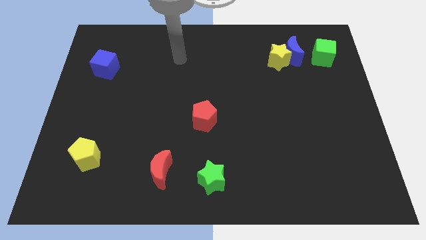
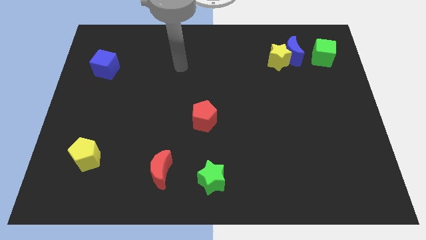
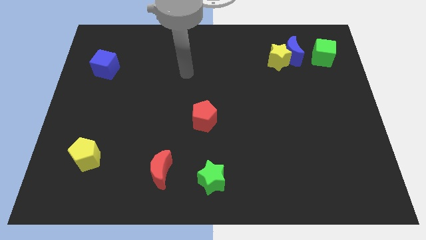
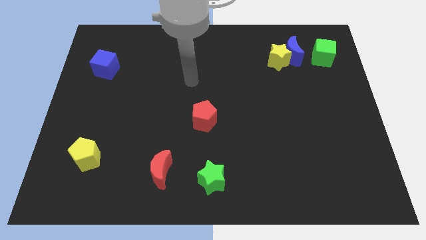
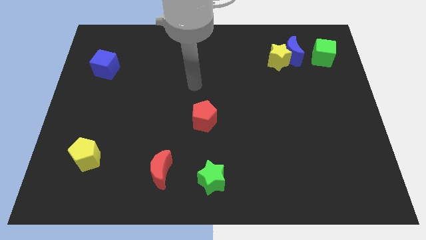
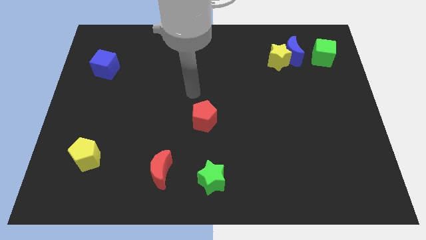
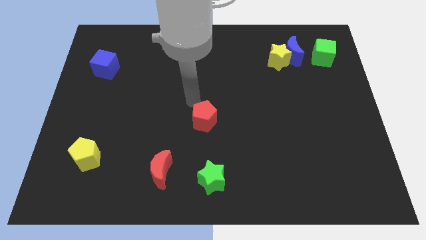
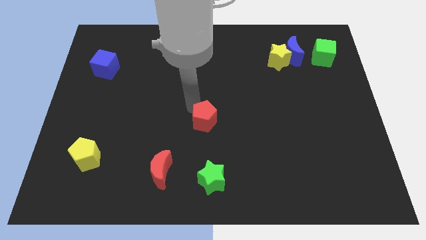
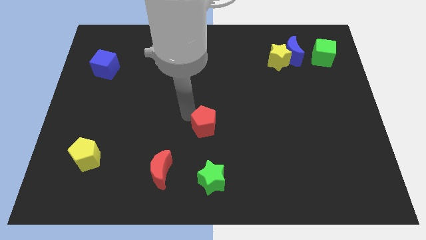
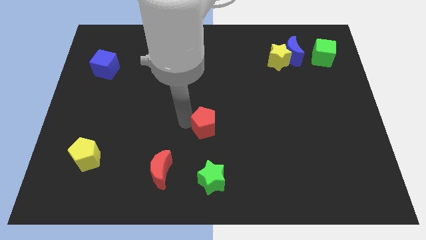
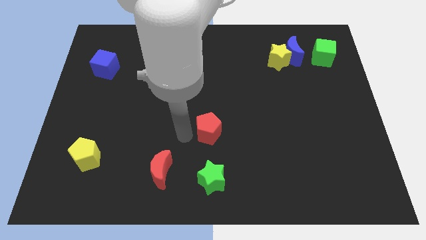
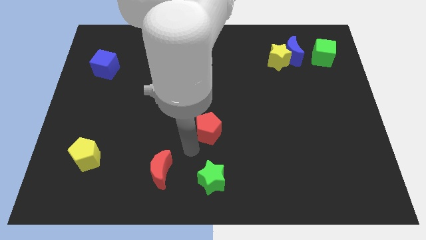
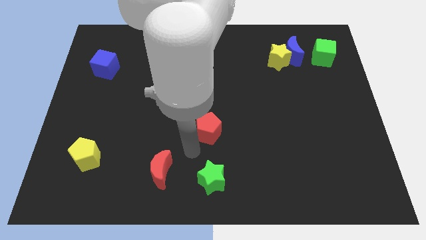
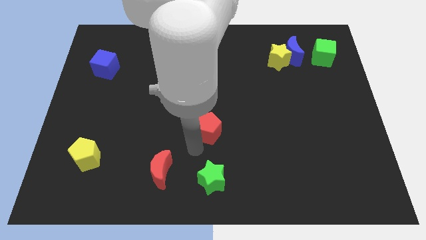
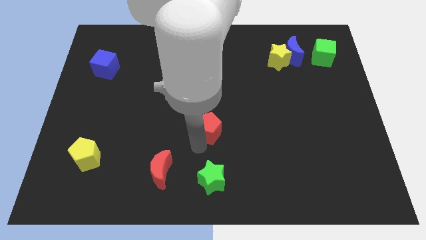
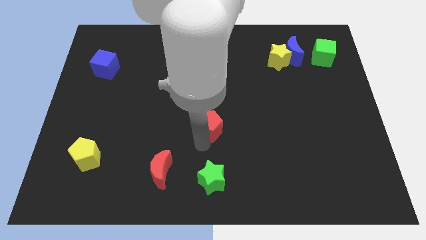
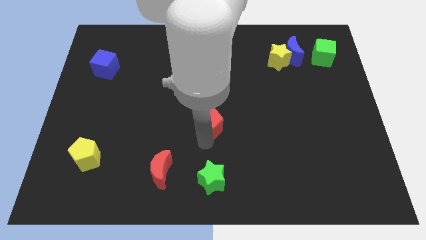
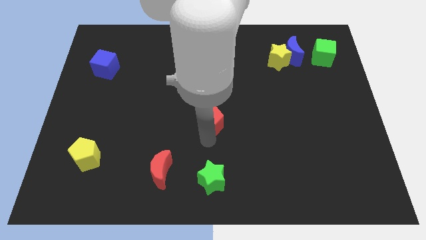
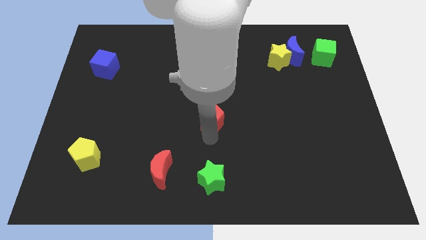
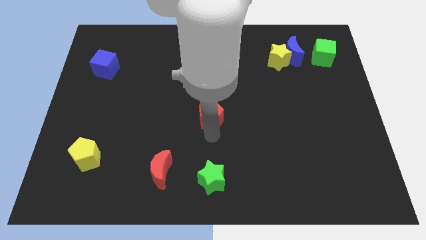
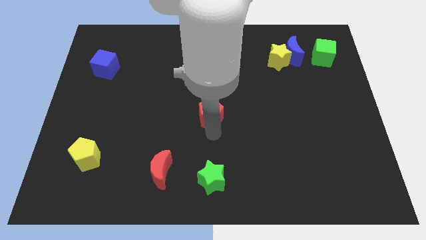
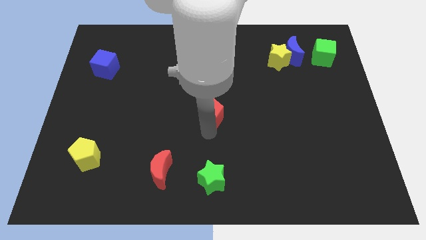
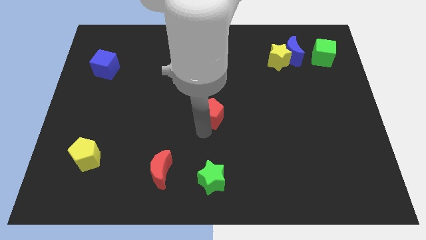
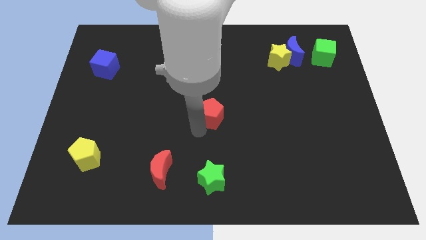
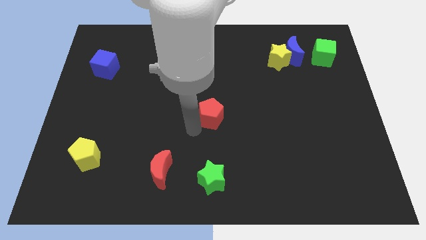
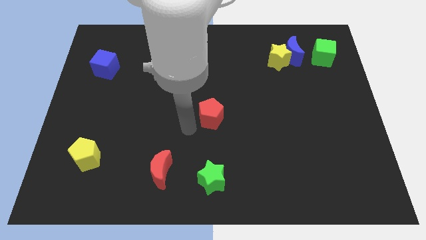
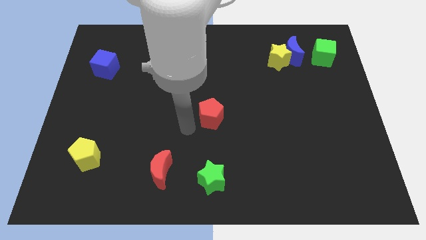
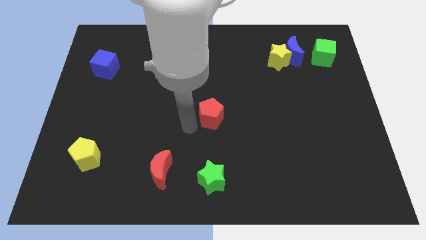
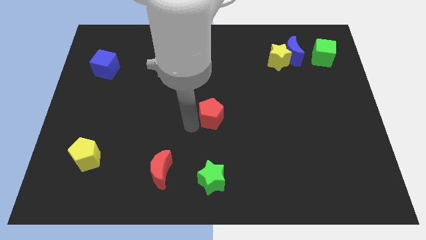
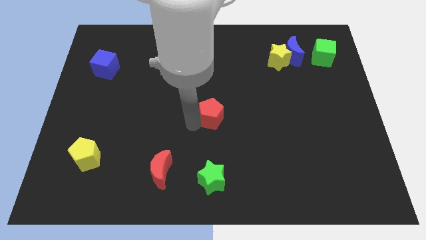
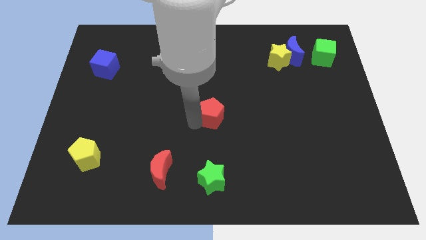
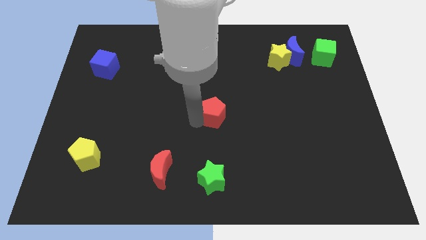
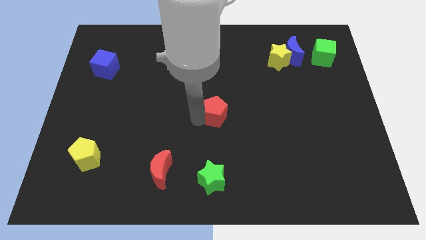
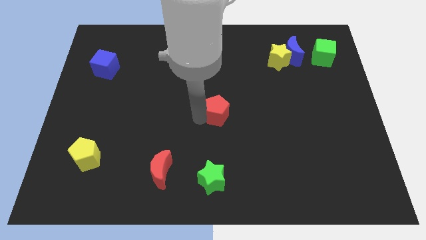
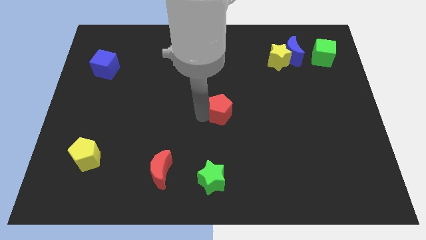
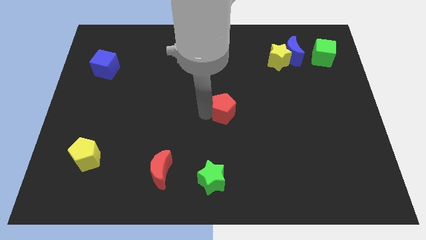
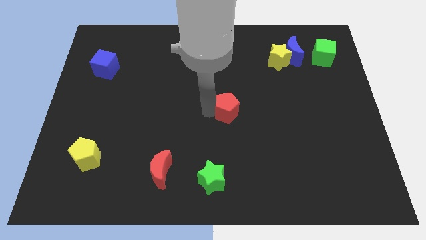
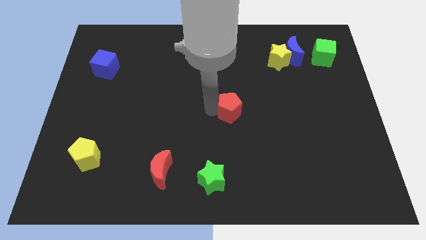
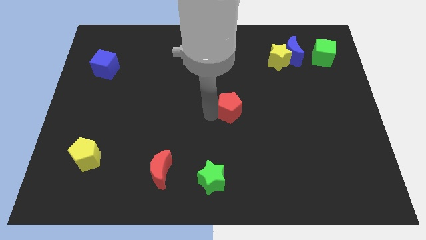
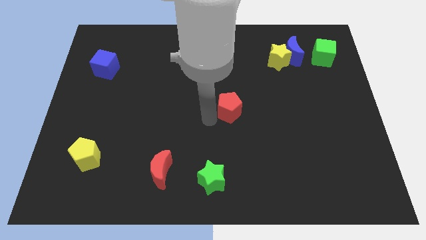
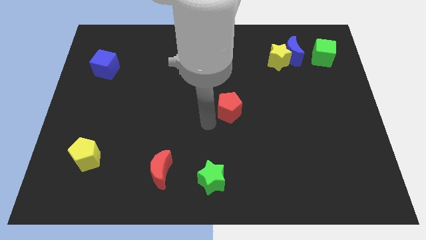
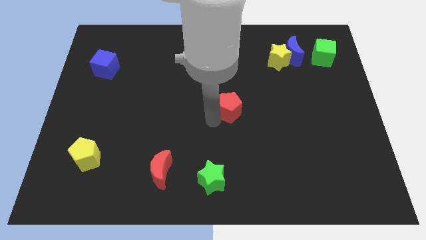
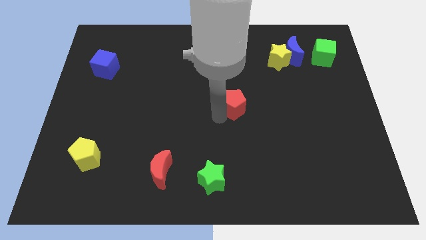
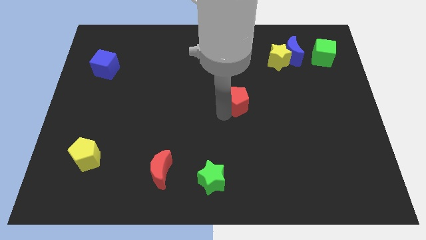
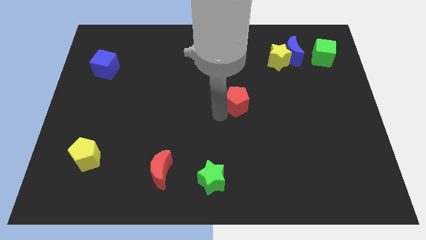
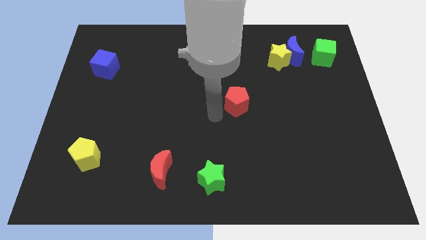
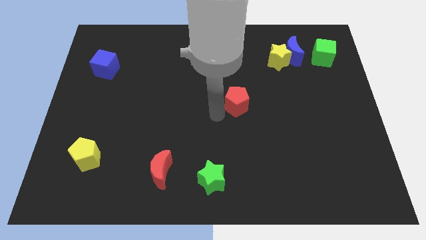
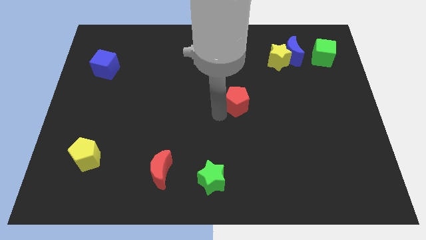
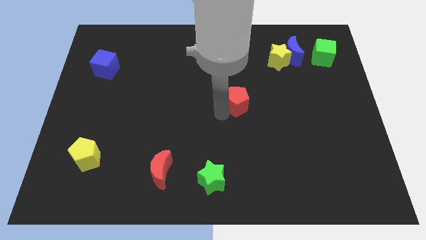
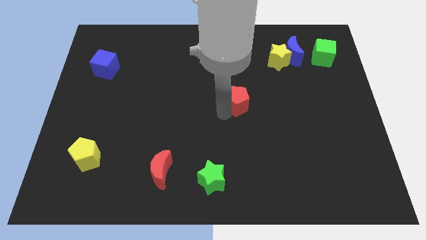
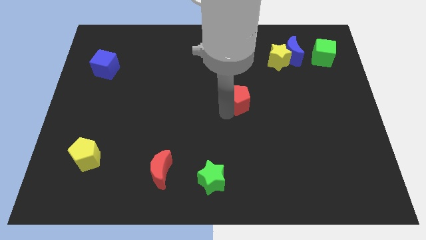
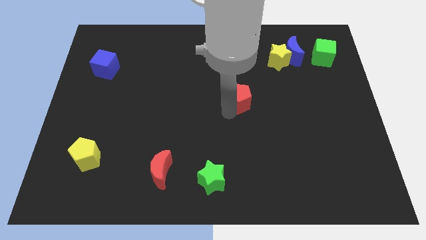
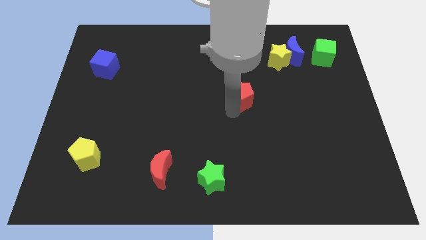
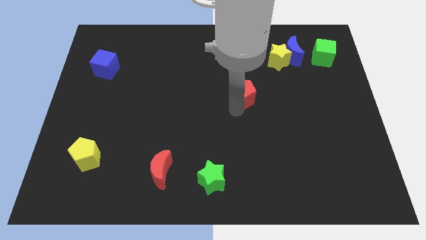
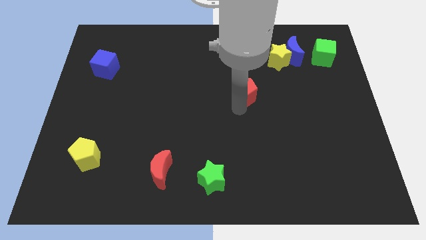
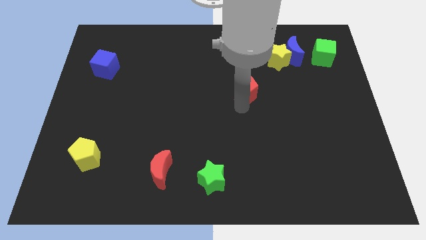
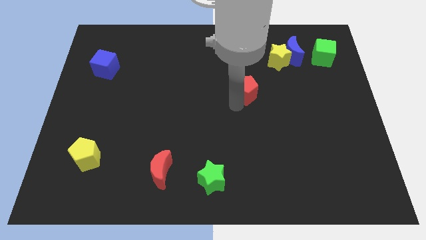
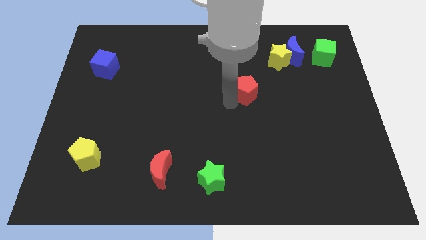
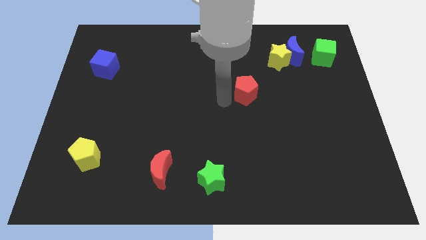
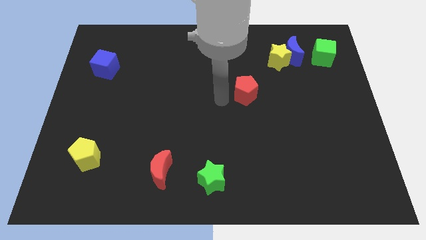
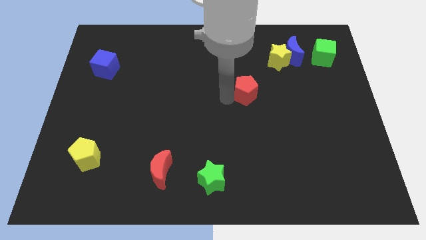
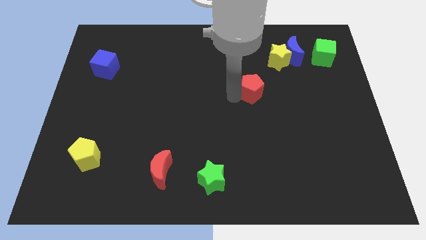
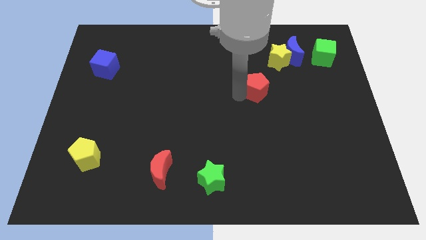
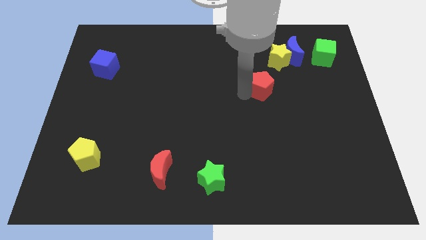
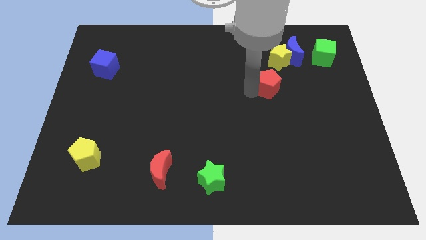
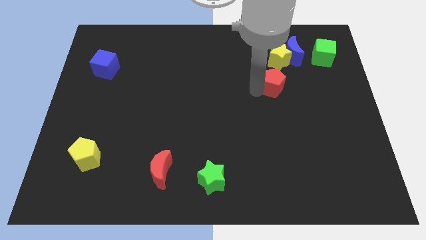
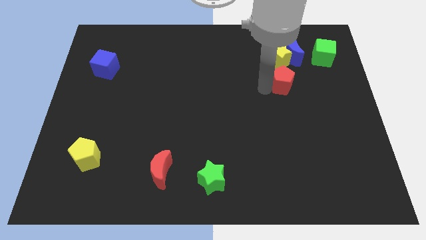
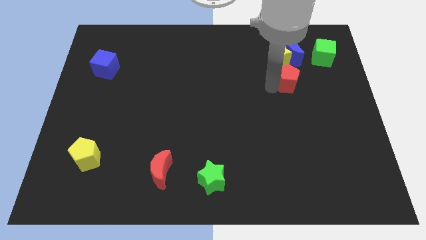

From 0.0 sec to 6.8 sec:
put the red pentagon to the bottom right of the yellow star

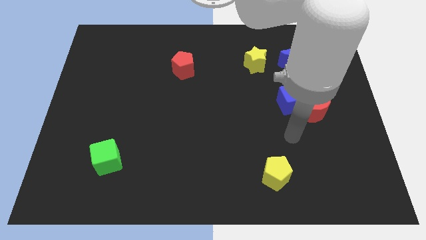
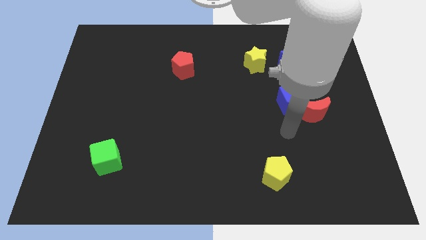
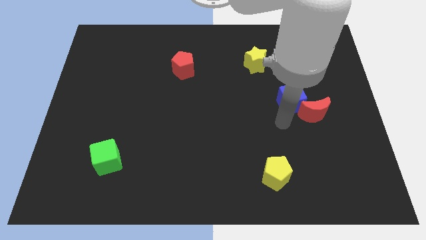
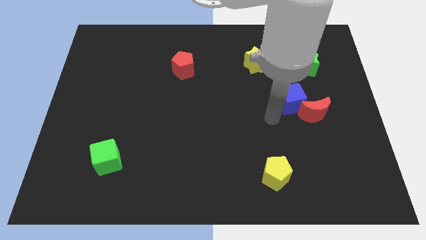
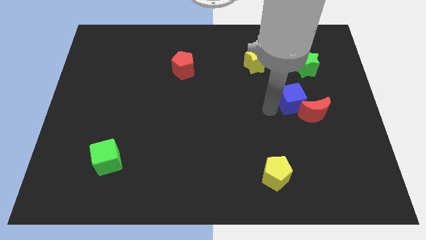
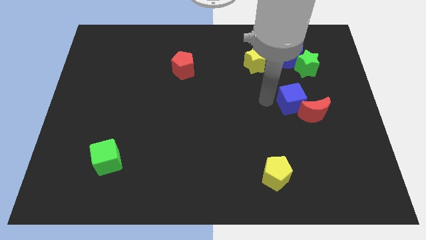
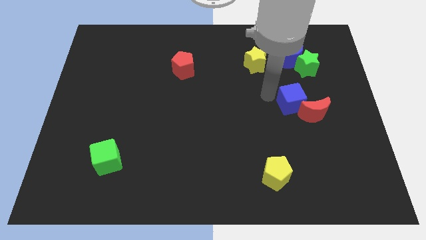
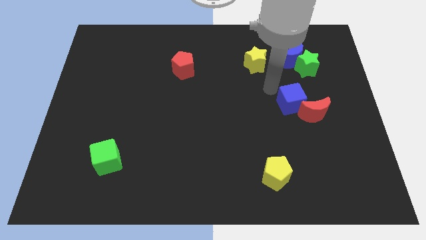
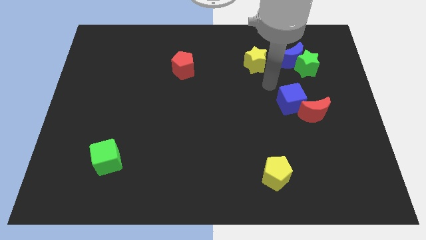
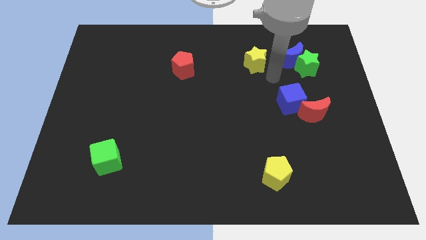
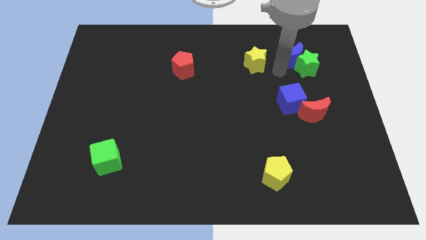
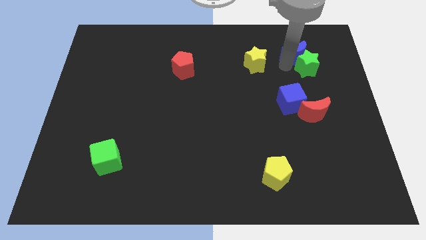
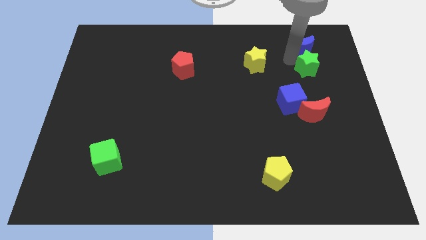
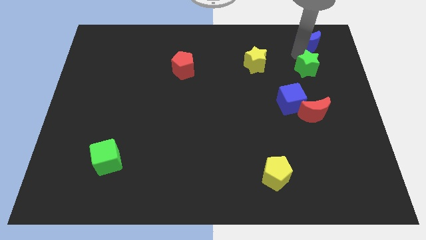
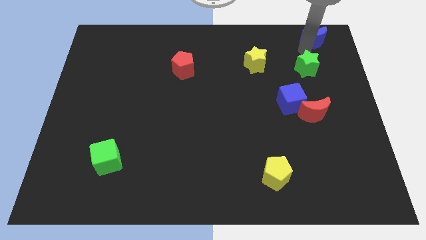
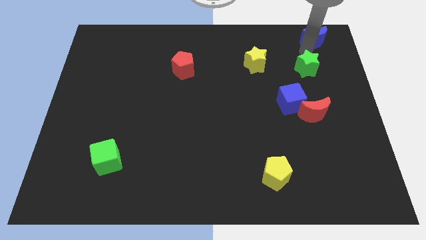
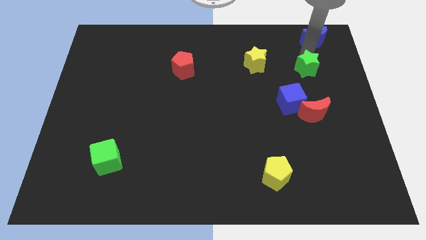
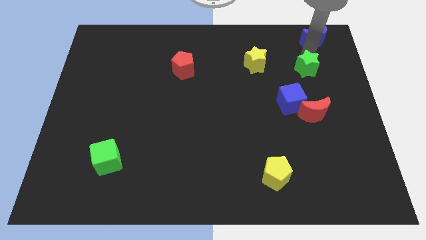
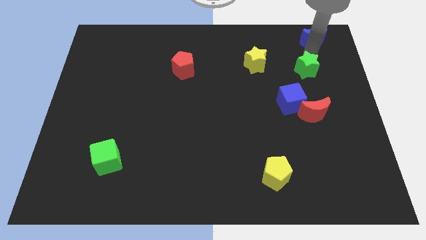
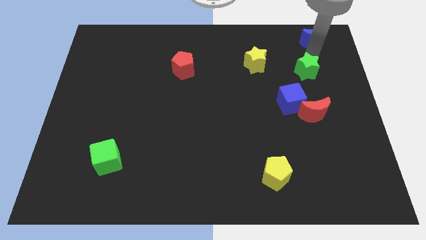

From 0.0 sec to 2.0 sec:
push the green star to the top right side of the blue cube
